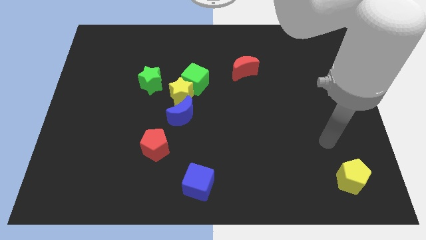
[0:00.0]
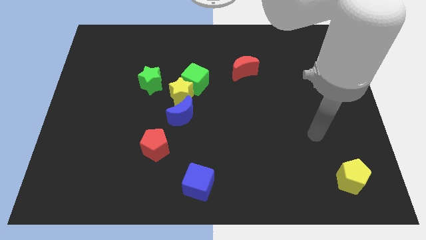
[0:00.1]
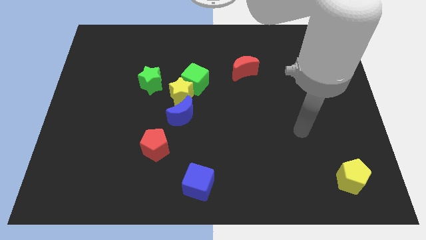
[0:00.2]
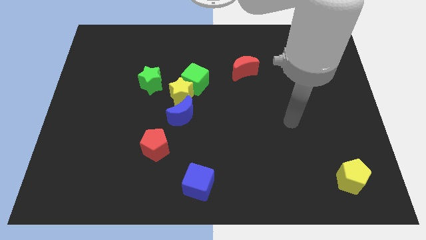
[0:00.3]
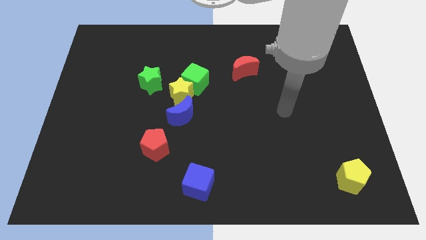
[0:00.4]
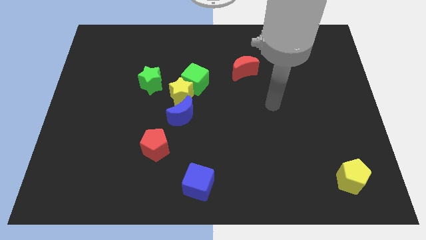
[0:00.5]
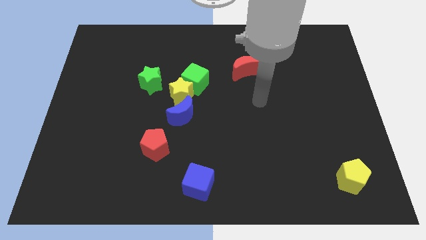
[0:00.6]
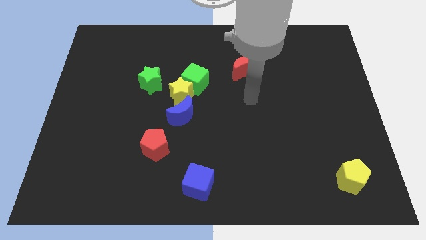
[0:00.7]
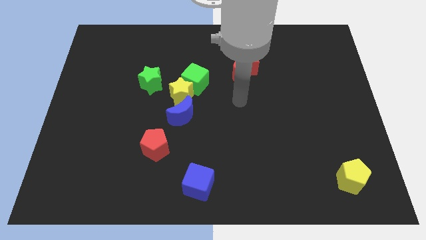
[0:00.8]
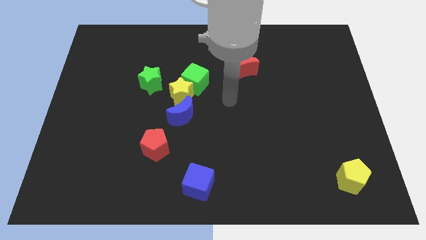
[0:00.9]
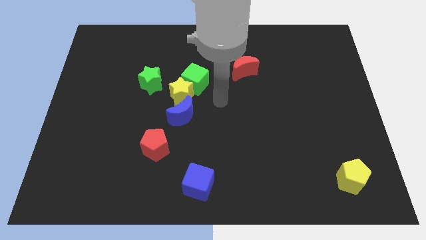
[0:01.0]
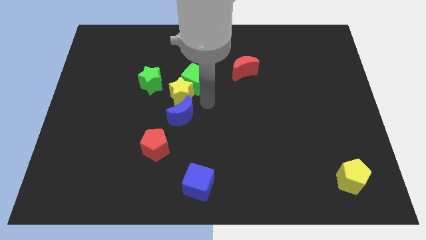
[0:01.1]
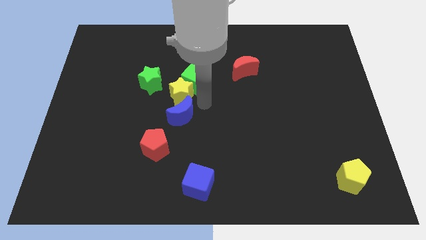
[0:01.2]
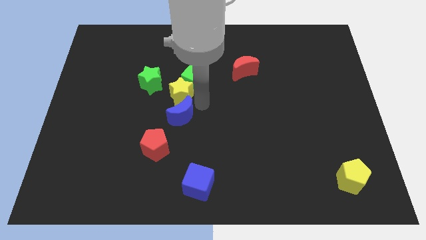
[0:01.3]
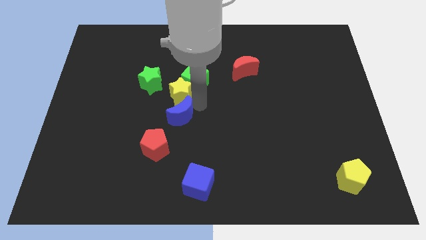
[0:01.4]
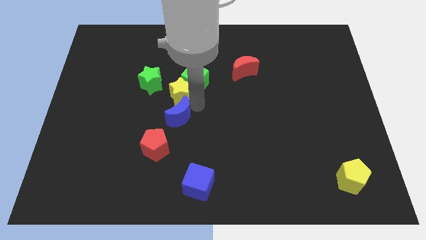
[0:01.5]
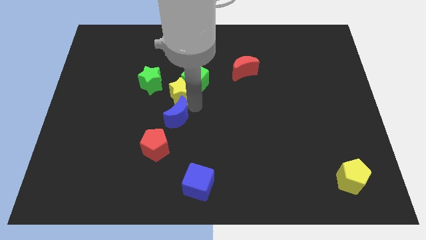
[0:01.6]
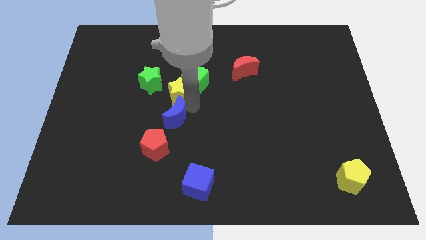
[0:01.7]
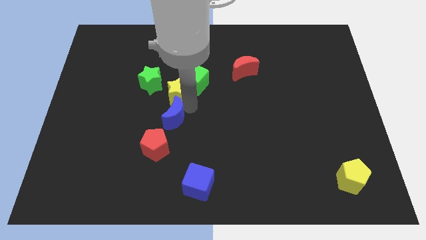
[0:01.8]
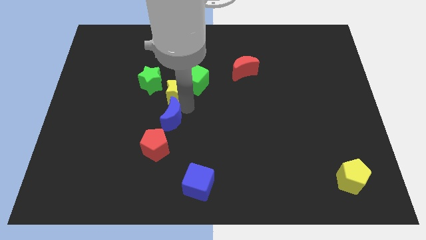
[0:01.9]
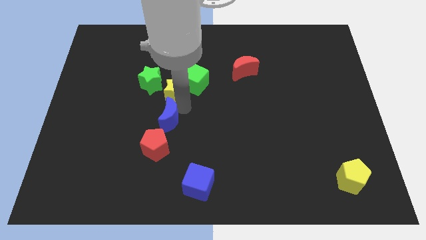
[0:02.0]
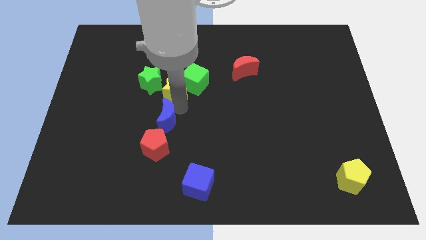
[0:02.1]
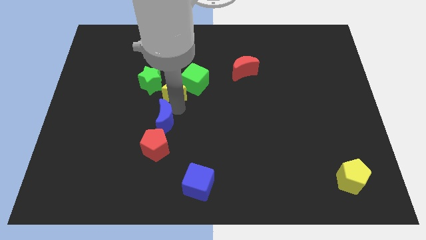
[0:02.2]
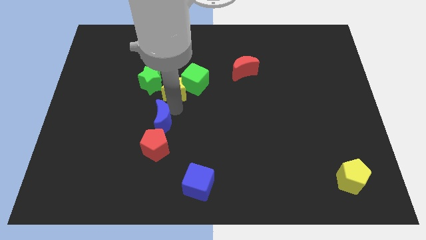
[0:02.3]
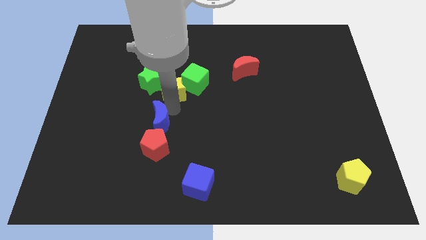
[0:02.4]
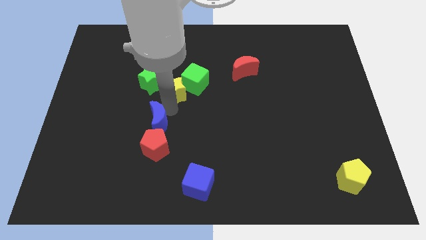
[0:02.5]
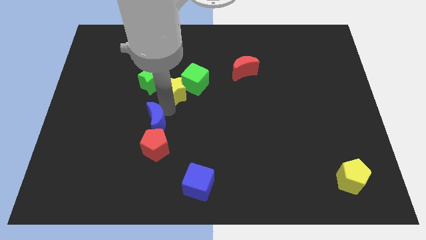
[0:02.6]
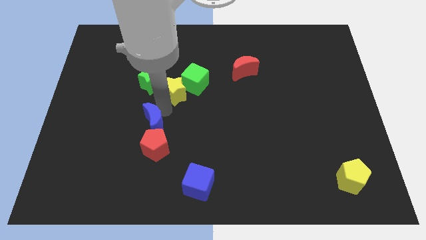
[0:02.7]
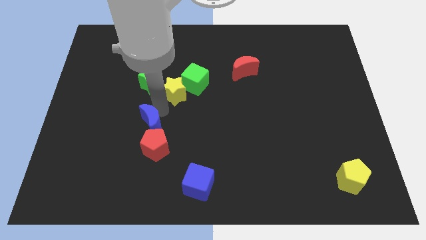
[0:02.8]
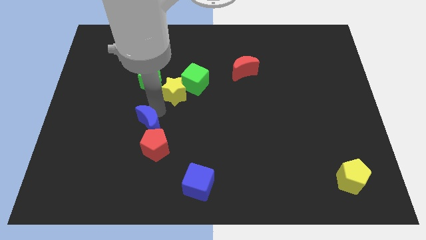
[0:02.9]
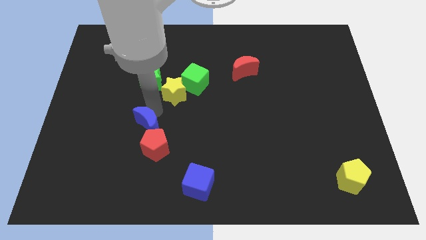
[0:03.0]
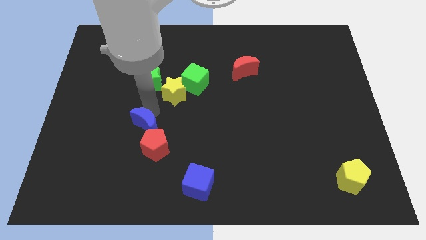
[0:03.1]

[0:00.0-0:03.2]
move the blue moon somewhat downwards and to the left

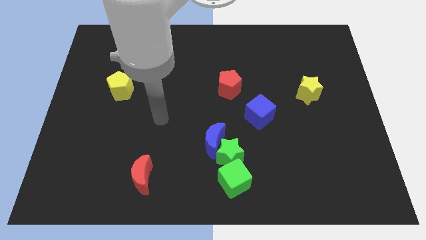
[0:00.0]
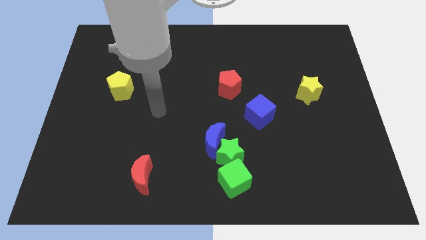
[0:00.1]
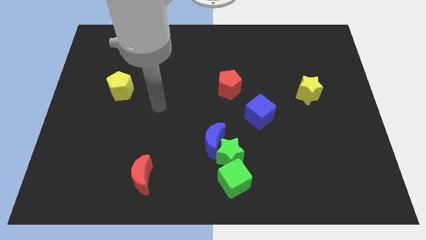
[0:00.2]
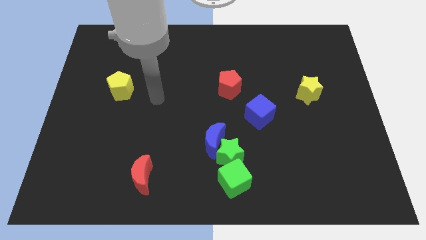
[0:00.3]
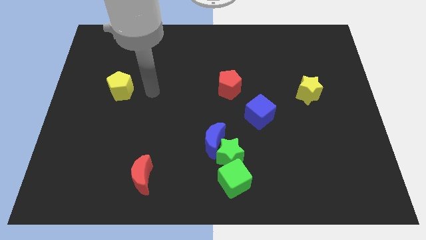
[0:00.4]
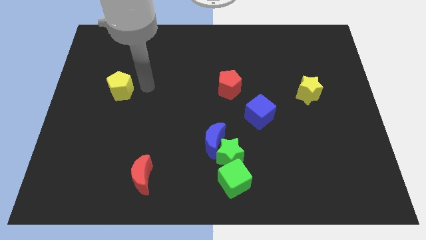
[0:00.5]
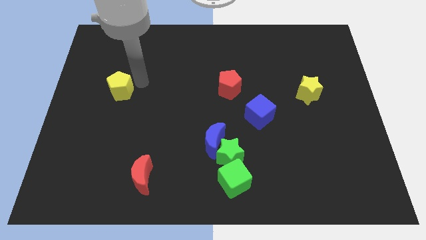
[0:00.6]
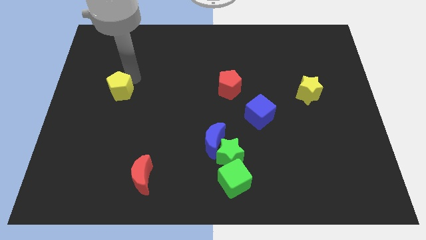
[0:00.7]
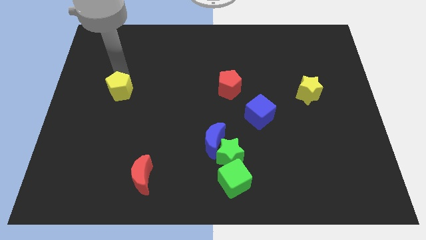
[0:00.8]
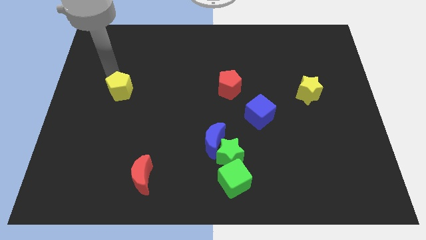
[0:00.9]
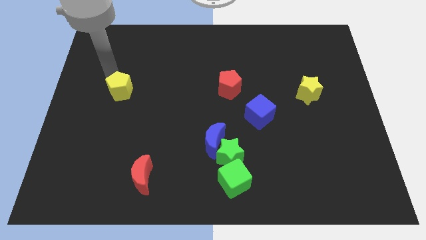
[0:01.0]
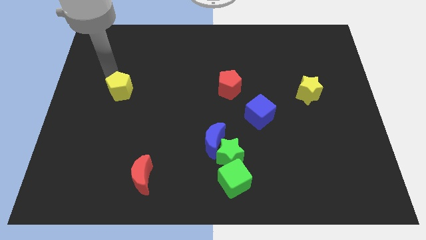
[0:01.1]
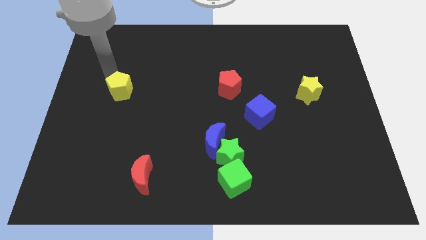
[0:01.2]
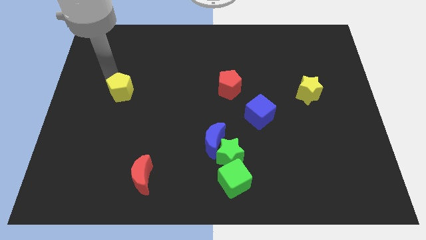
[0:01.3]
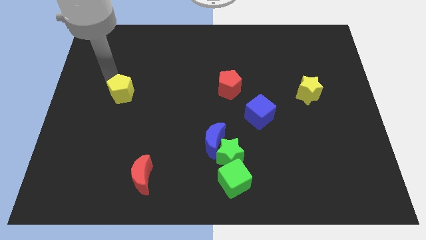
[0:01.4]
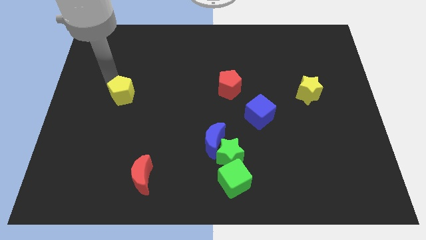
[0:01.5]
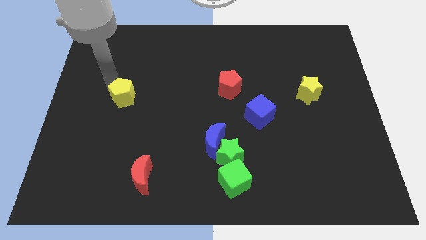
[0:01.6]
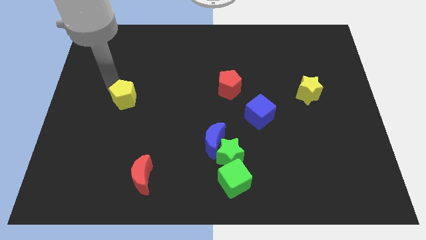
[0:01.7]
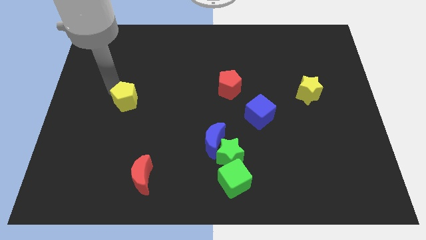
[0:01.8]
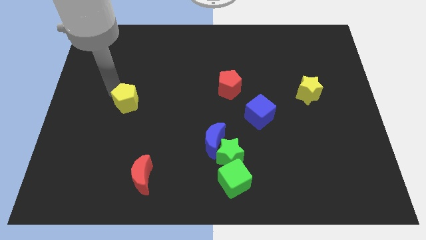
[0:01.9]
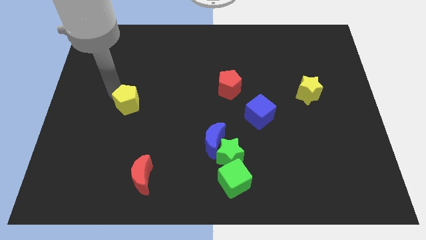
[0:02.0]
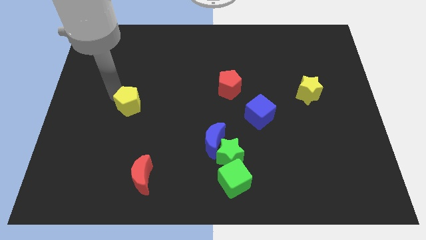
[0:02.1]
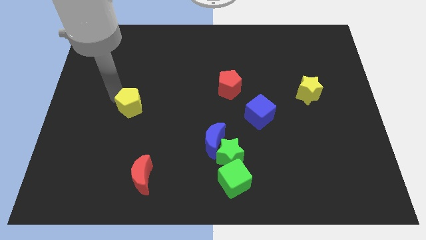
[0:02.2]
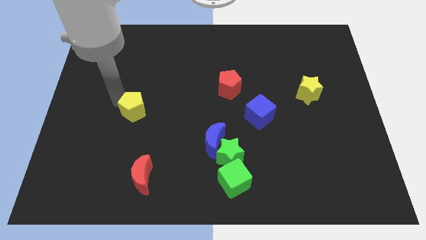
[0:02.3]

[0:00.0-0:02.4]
slightly slide the yellow pentagon downwards and right diagonally

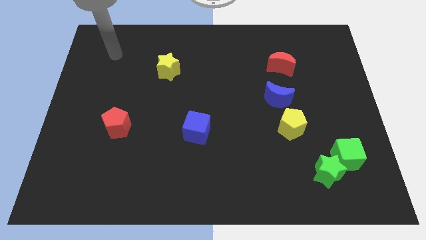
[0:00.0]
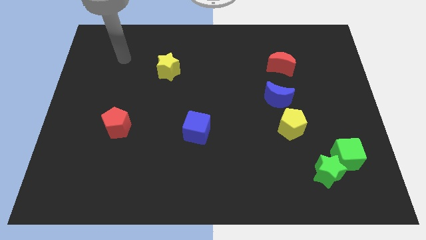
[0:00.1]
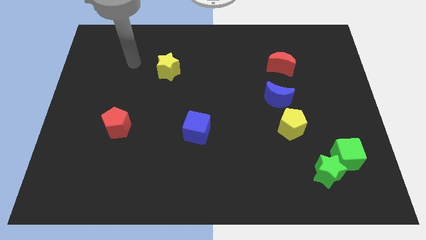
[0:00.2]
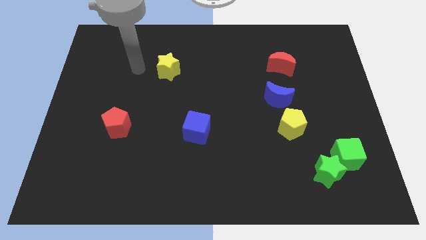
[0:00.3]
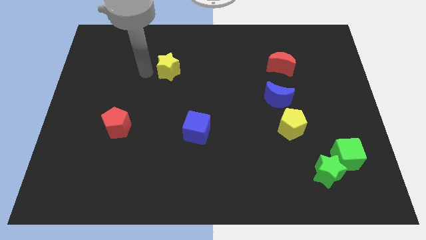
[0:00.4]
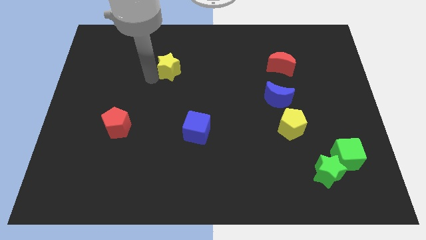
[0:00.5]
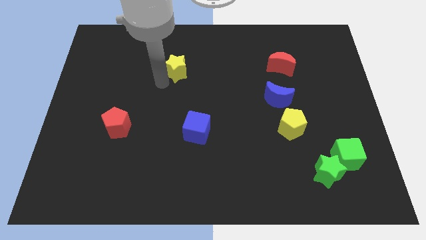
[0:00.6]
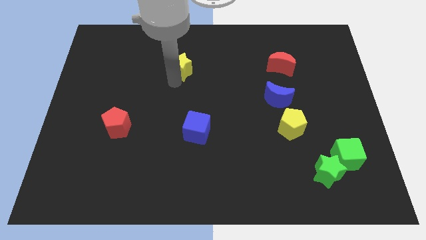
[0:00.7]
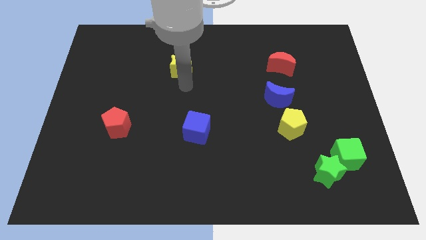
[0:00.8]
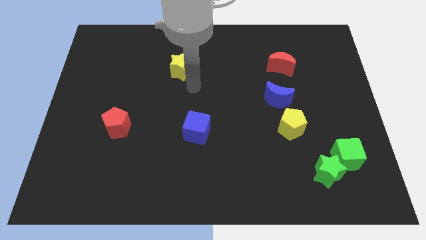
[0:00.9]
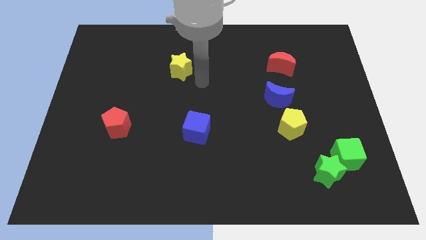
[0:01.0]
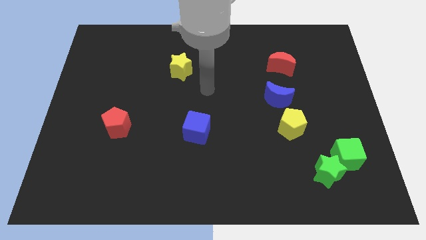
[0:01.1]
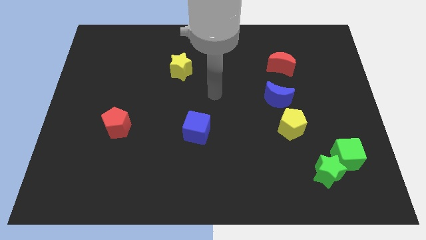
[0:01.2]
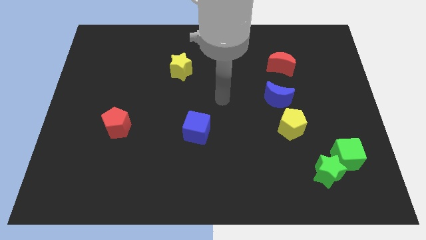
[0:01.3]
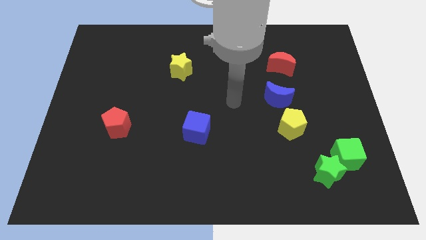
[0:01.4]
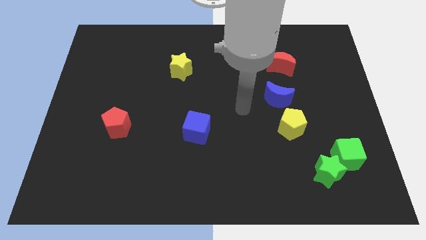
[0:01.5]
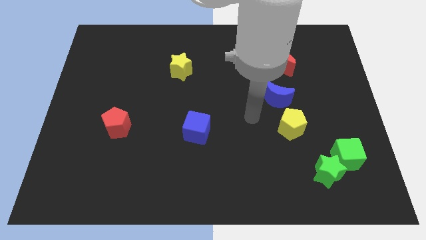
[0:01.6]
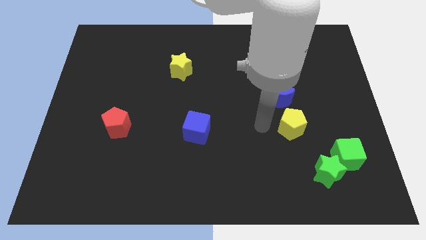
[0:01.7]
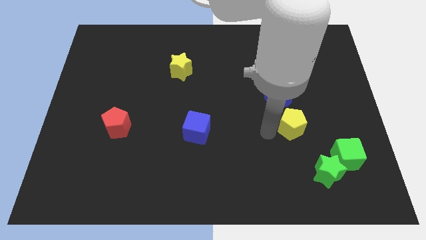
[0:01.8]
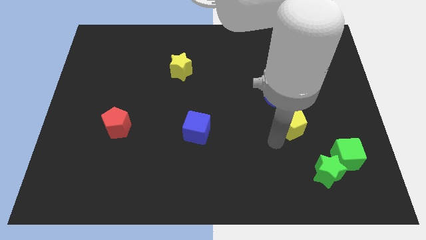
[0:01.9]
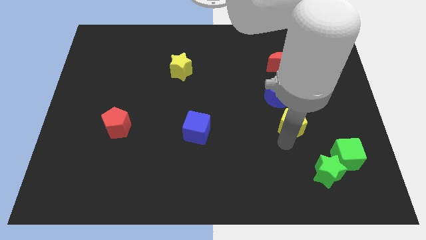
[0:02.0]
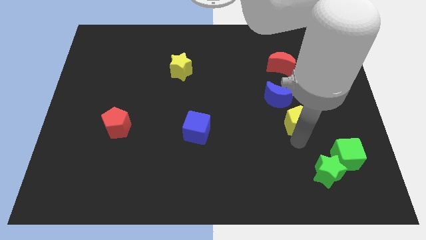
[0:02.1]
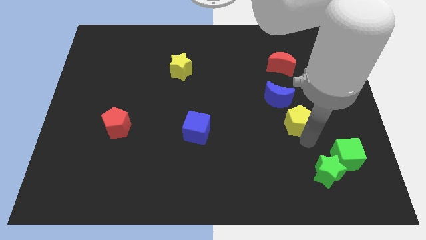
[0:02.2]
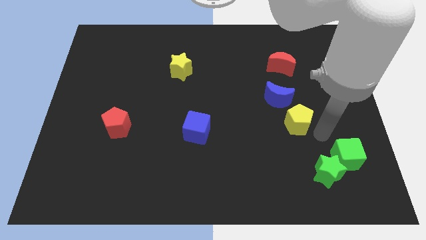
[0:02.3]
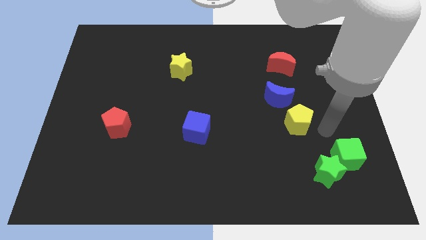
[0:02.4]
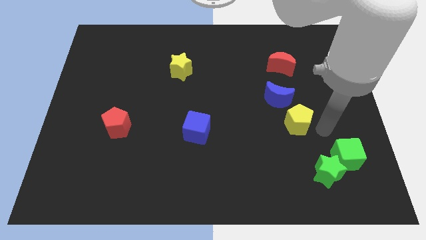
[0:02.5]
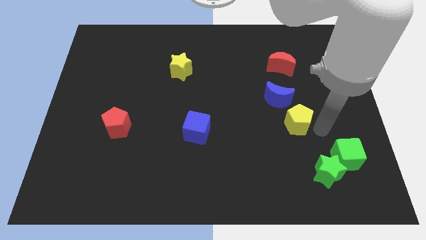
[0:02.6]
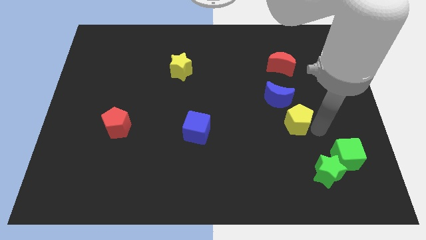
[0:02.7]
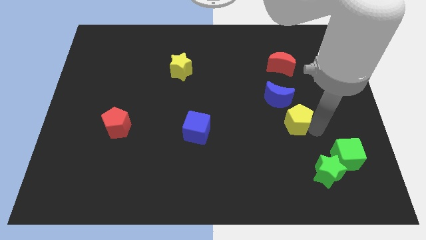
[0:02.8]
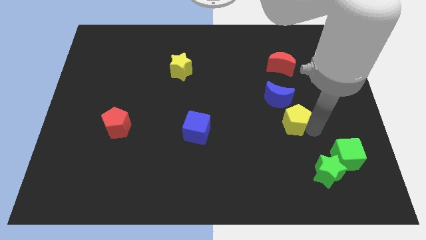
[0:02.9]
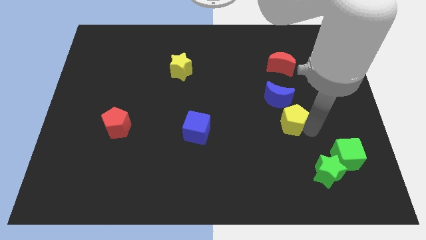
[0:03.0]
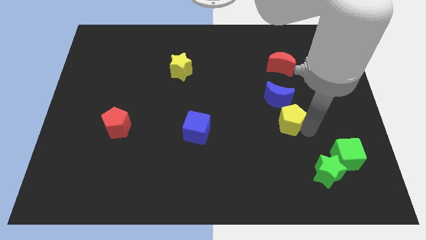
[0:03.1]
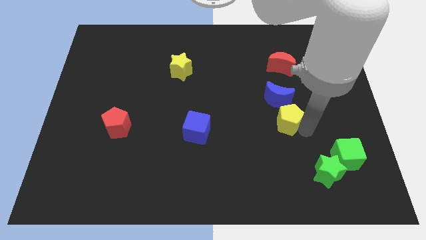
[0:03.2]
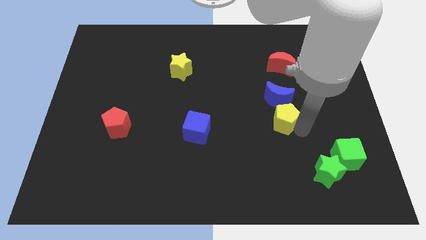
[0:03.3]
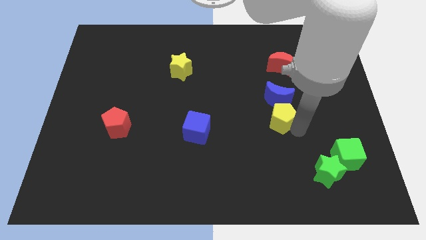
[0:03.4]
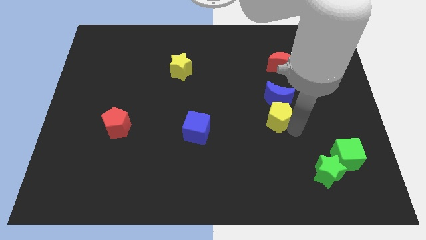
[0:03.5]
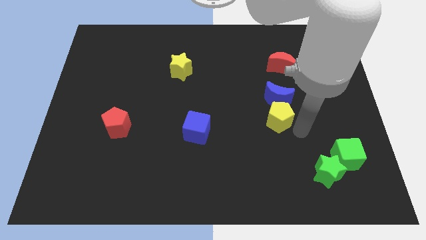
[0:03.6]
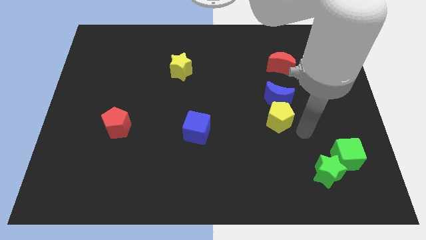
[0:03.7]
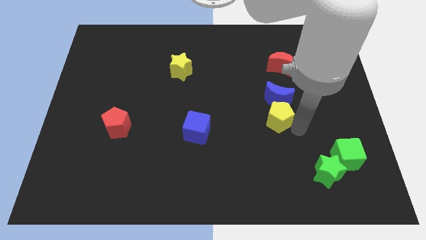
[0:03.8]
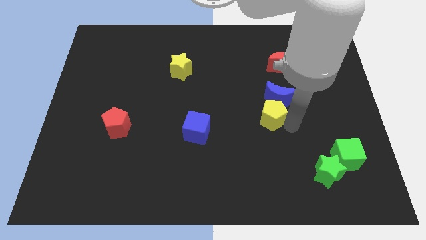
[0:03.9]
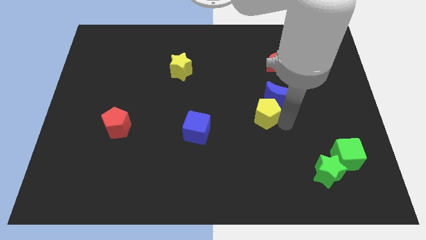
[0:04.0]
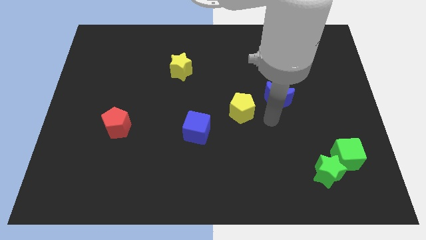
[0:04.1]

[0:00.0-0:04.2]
slightly push the yellow pentagon up and left diagonally
